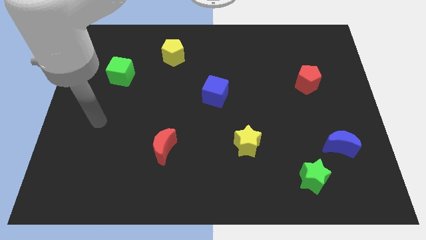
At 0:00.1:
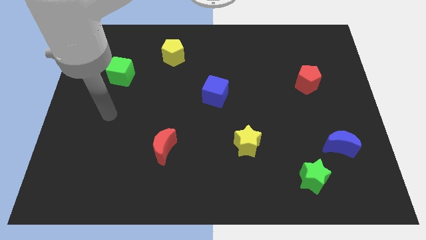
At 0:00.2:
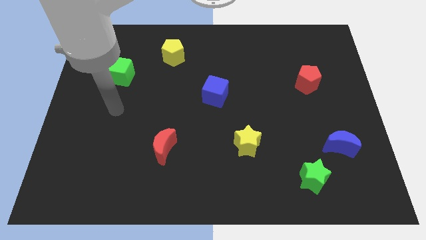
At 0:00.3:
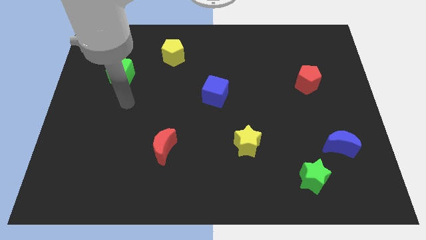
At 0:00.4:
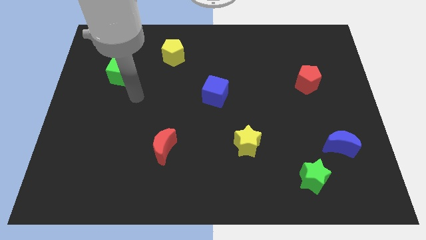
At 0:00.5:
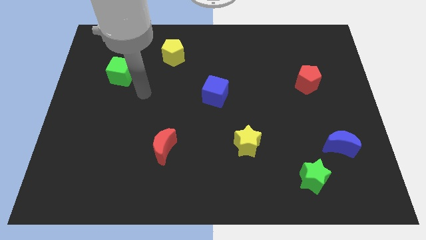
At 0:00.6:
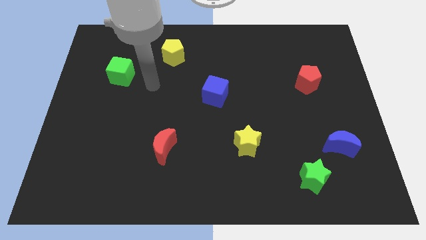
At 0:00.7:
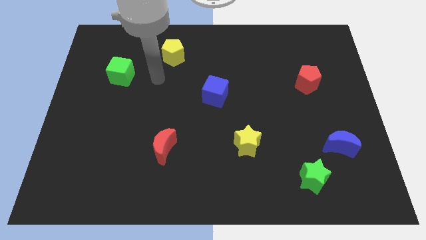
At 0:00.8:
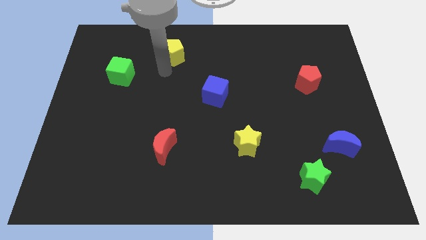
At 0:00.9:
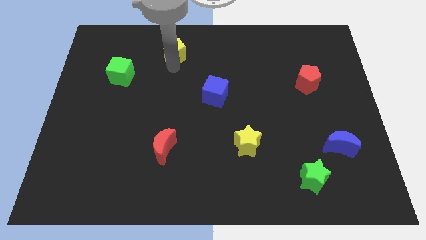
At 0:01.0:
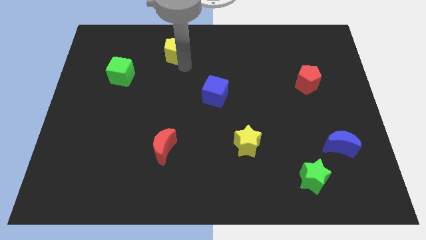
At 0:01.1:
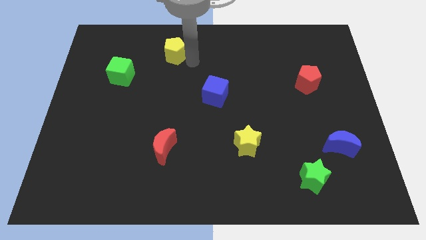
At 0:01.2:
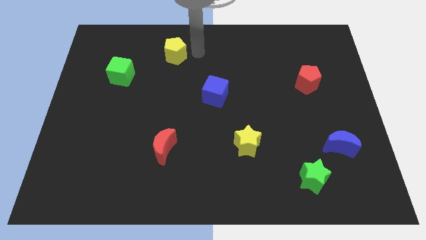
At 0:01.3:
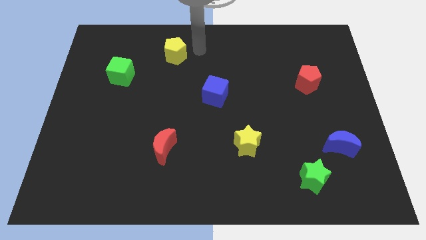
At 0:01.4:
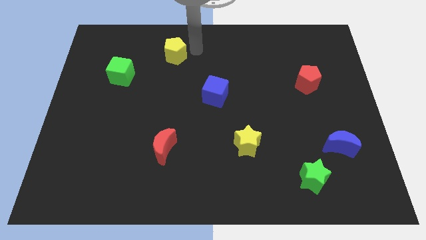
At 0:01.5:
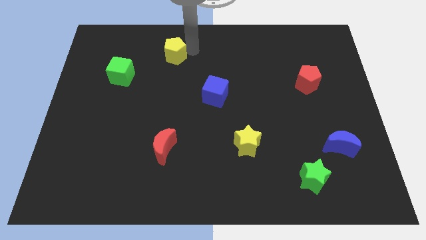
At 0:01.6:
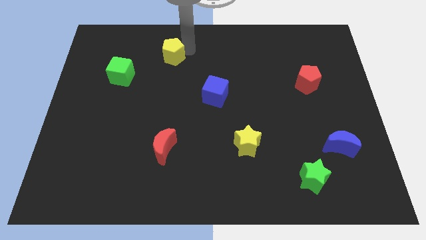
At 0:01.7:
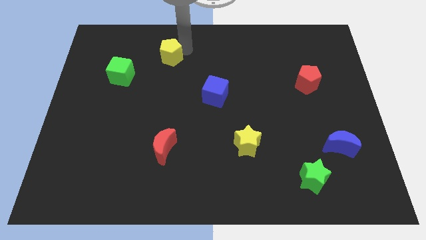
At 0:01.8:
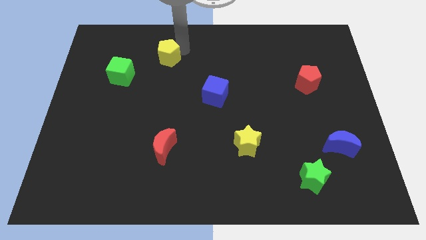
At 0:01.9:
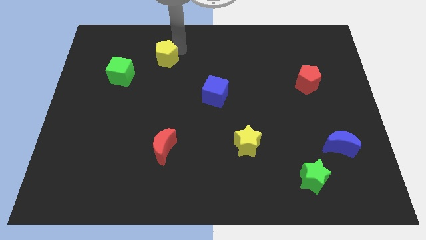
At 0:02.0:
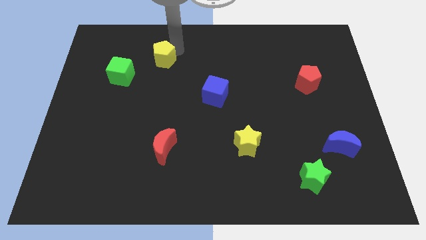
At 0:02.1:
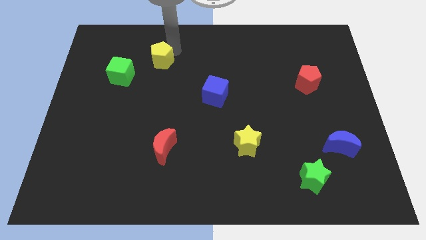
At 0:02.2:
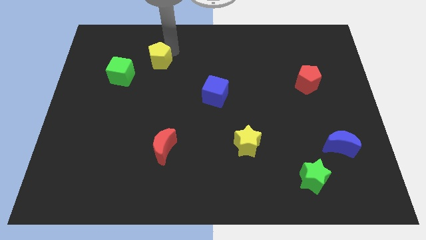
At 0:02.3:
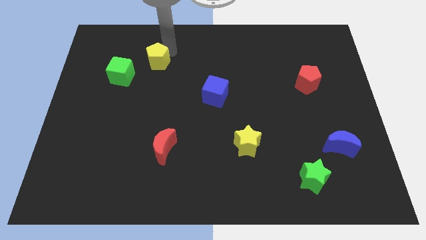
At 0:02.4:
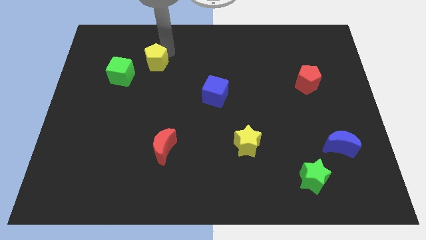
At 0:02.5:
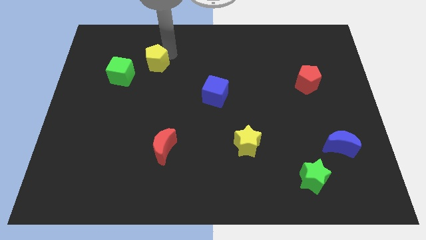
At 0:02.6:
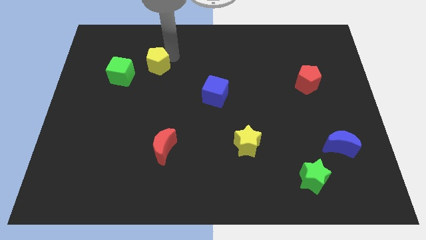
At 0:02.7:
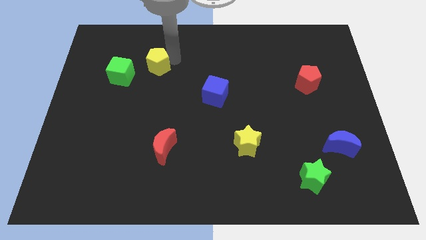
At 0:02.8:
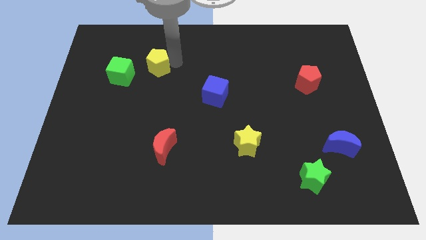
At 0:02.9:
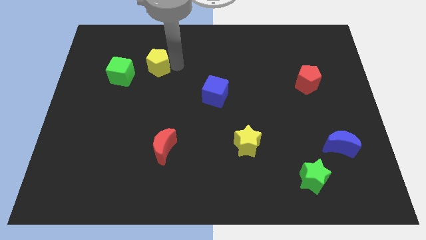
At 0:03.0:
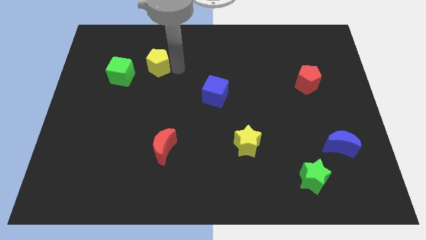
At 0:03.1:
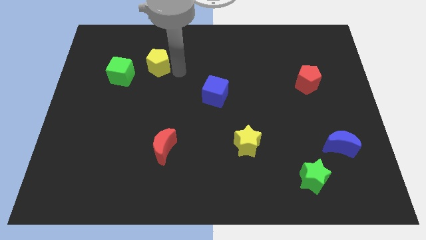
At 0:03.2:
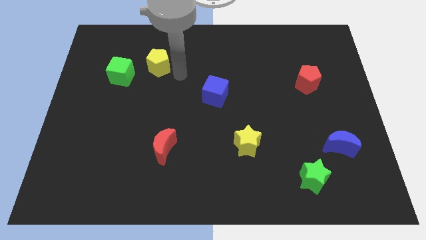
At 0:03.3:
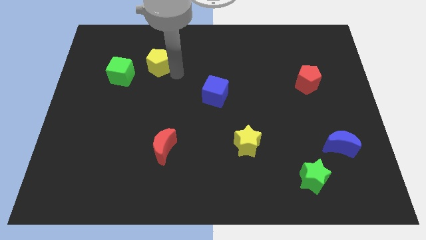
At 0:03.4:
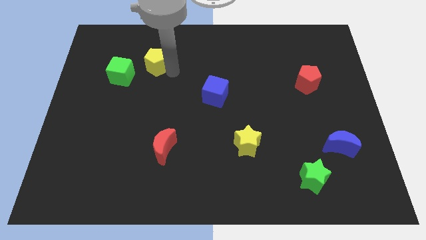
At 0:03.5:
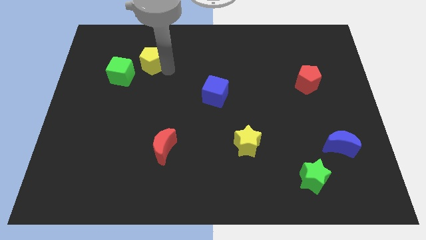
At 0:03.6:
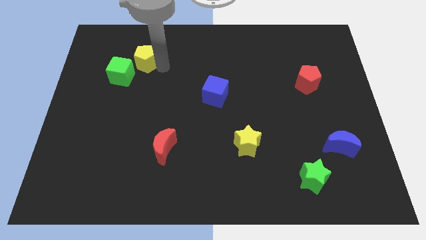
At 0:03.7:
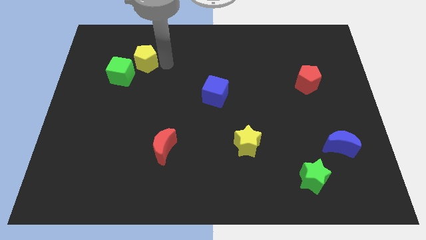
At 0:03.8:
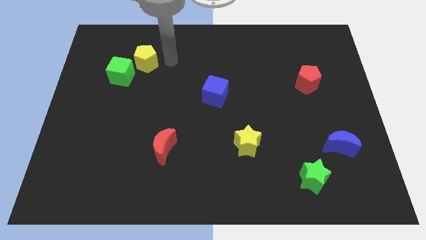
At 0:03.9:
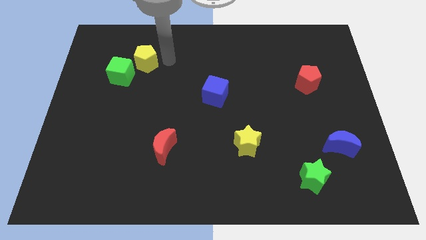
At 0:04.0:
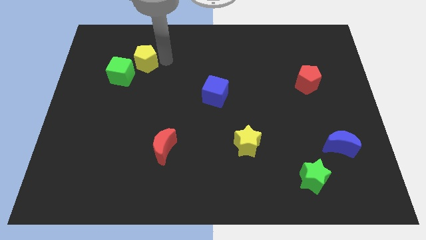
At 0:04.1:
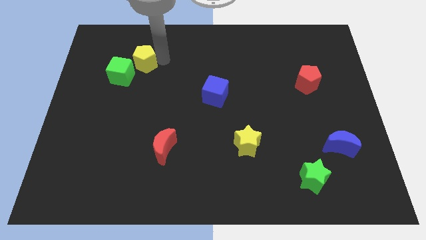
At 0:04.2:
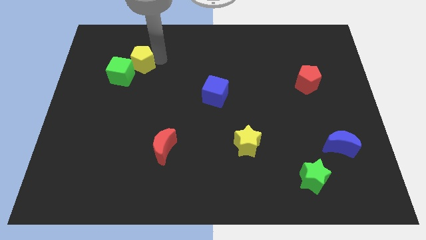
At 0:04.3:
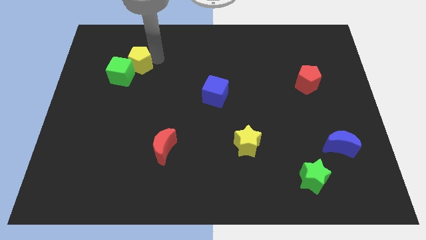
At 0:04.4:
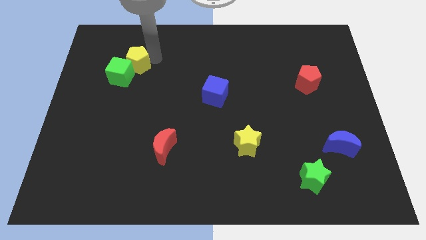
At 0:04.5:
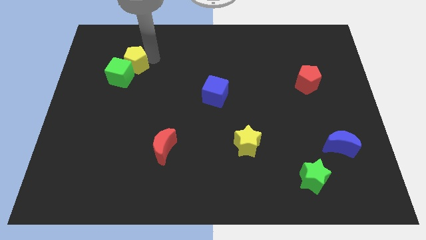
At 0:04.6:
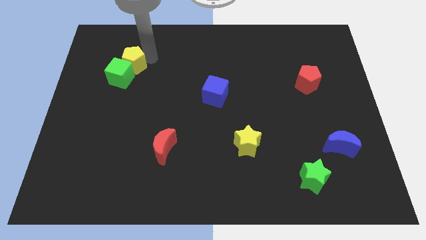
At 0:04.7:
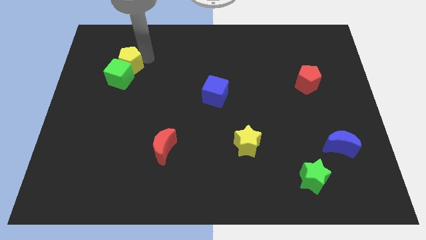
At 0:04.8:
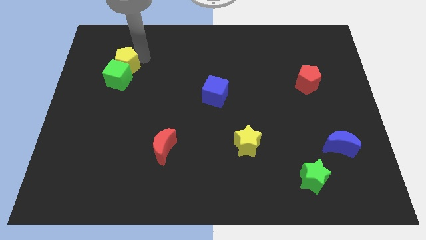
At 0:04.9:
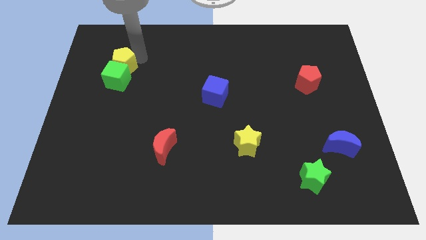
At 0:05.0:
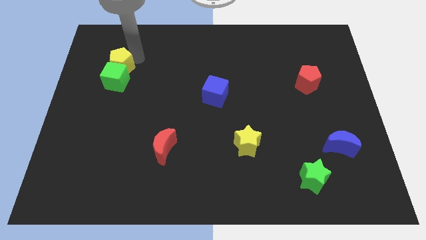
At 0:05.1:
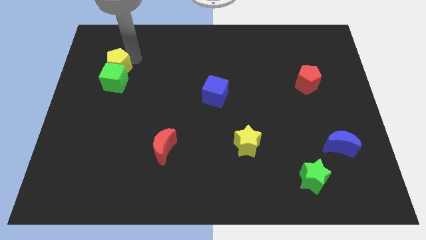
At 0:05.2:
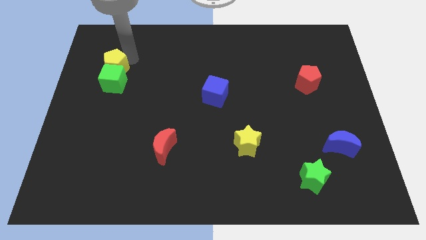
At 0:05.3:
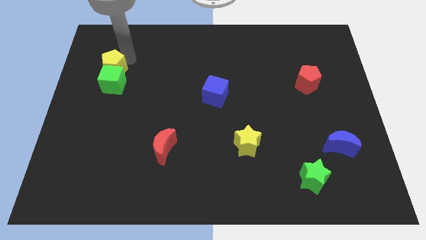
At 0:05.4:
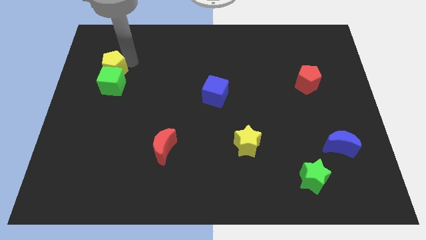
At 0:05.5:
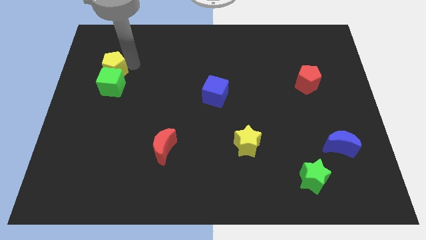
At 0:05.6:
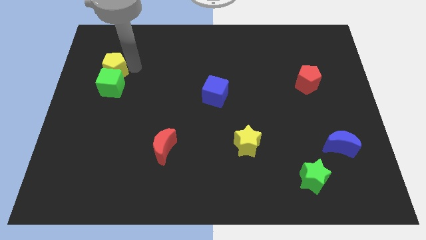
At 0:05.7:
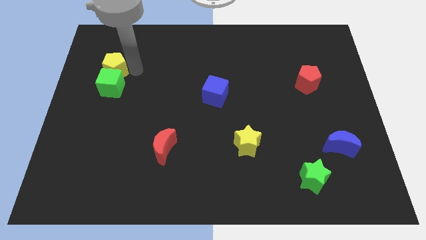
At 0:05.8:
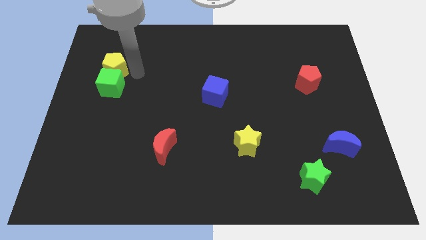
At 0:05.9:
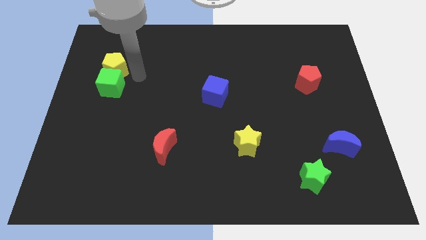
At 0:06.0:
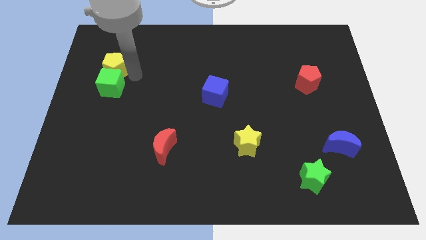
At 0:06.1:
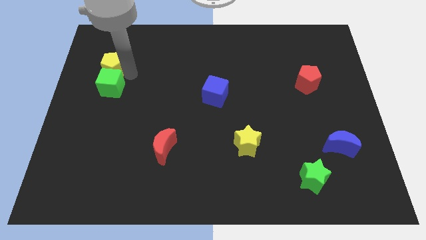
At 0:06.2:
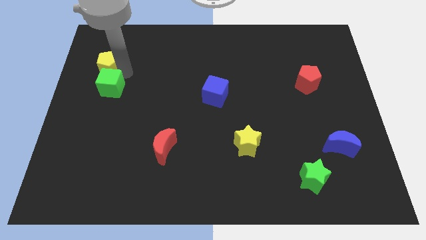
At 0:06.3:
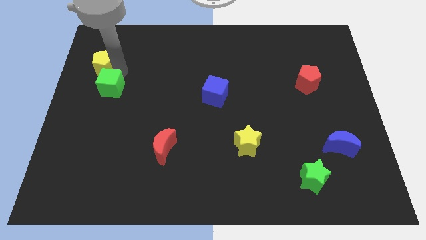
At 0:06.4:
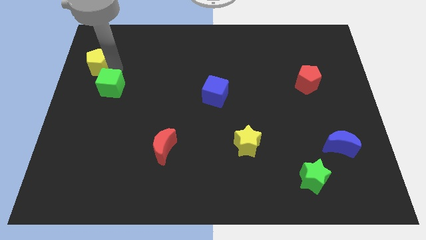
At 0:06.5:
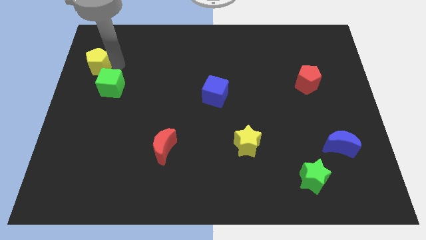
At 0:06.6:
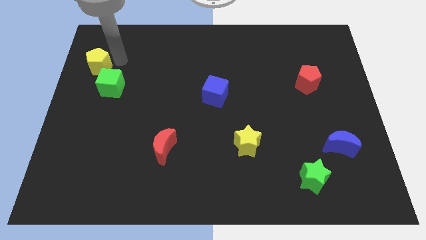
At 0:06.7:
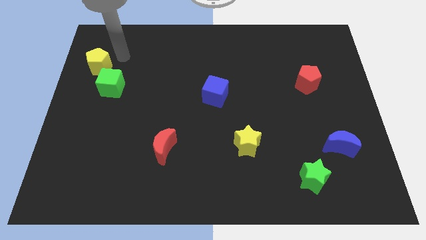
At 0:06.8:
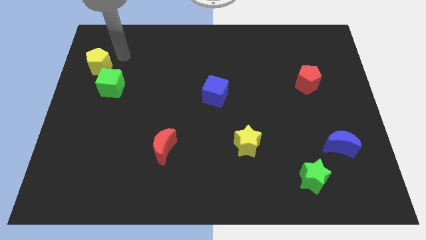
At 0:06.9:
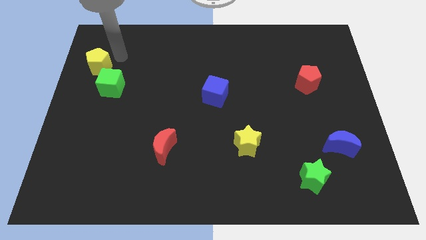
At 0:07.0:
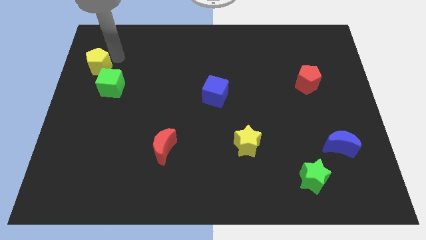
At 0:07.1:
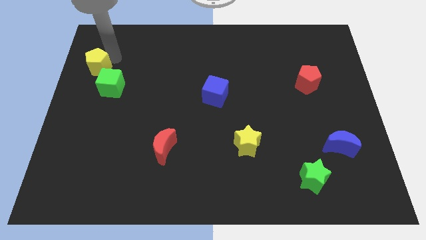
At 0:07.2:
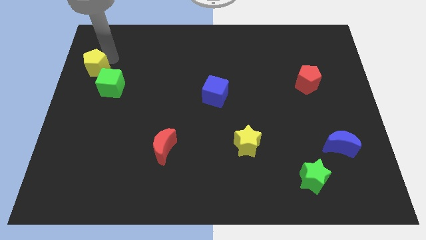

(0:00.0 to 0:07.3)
put the yellow pentagon to the left side
